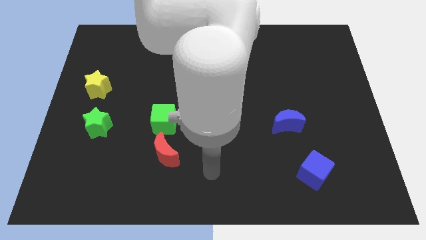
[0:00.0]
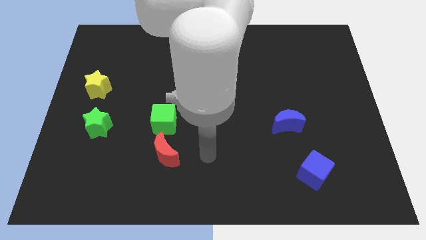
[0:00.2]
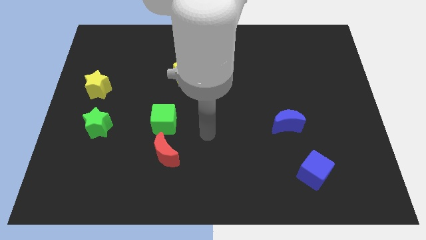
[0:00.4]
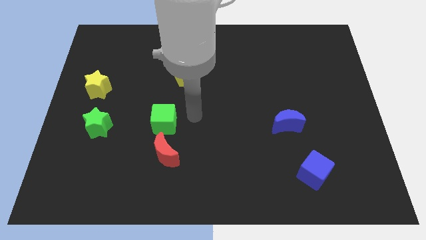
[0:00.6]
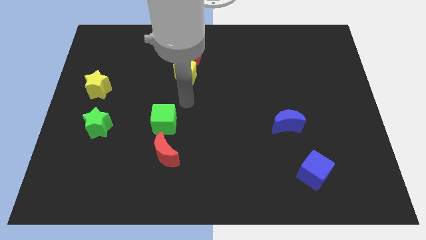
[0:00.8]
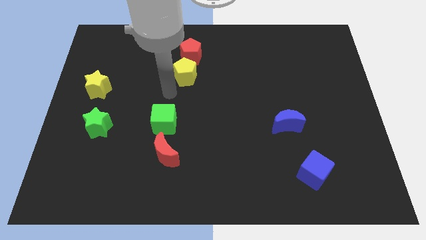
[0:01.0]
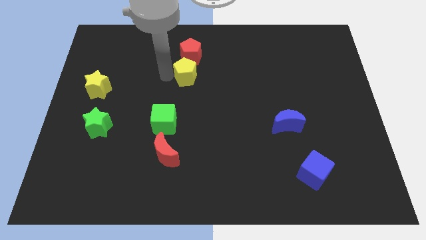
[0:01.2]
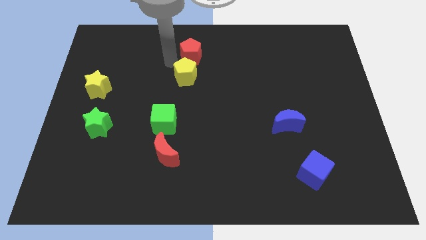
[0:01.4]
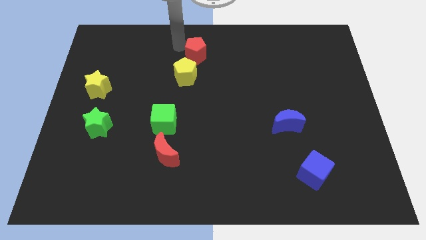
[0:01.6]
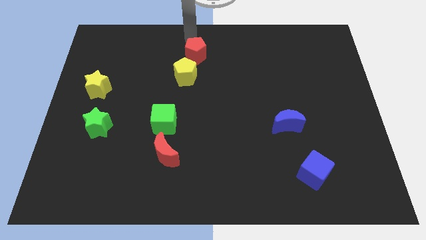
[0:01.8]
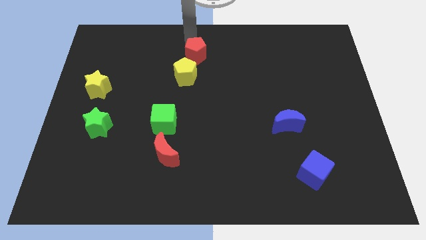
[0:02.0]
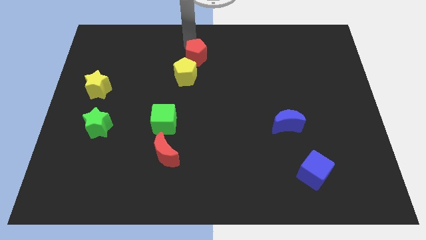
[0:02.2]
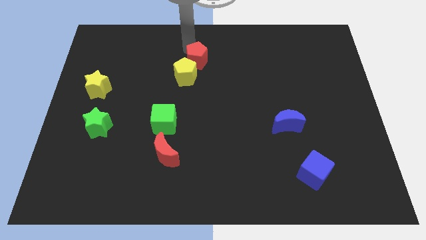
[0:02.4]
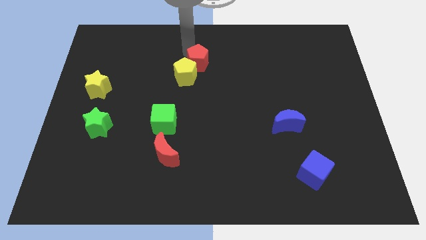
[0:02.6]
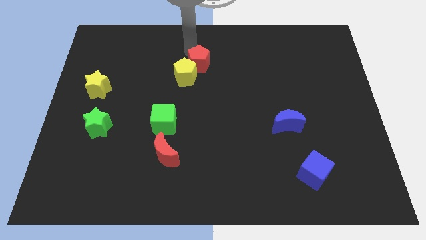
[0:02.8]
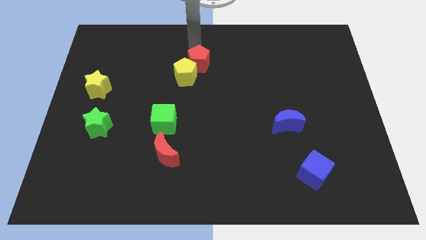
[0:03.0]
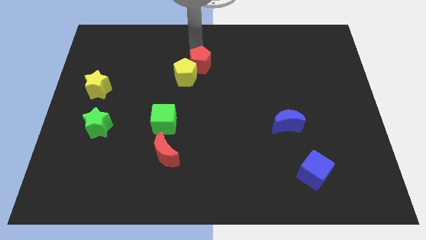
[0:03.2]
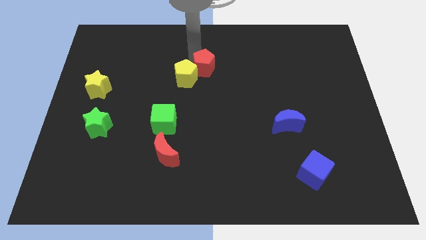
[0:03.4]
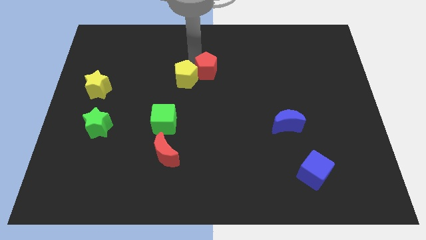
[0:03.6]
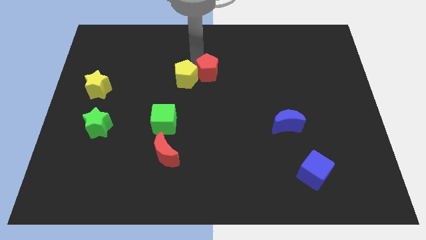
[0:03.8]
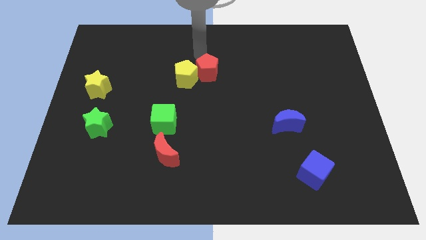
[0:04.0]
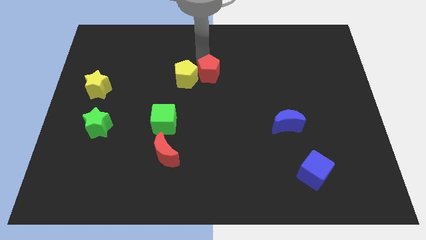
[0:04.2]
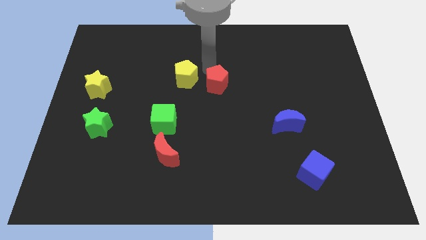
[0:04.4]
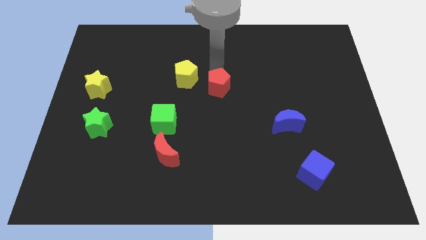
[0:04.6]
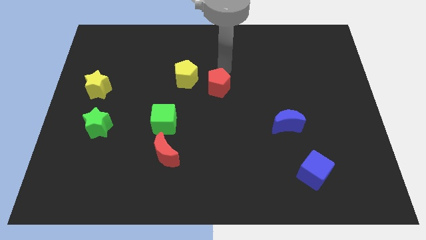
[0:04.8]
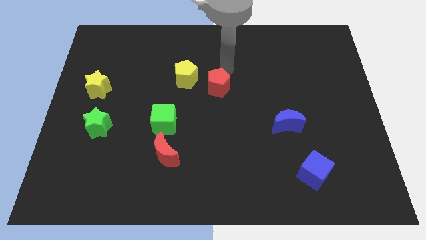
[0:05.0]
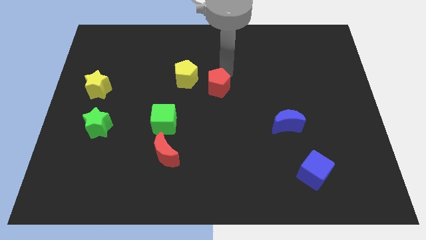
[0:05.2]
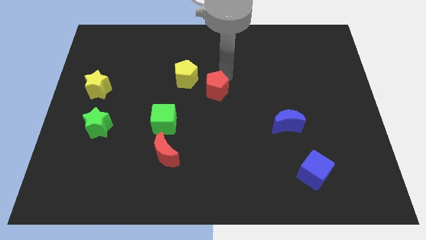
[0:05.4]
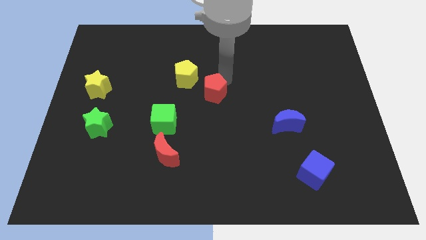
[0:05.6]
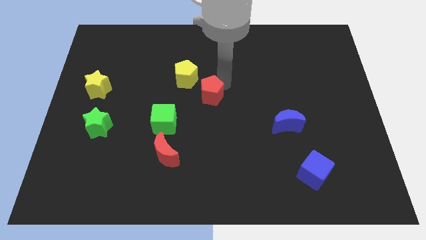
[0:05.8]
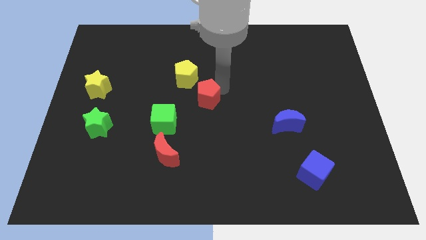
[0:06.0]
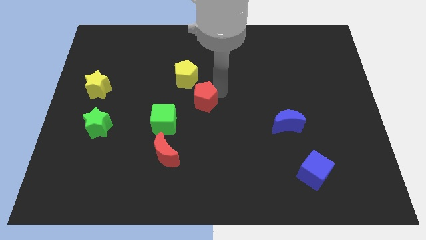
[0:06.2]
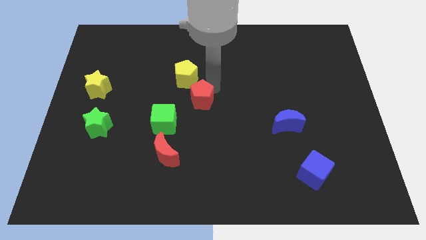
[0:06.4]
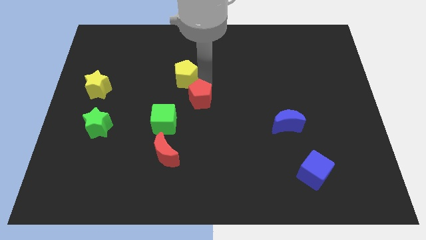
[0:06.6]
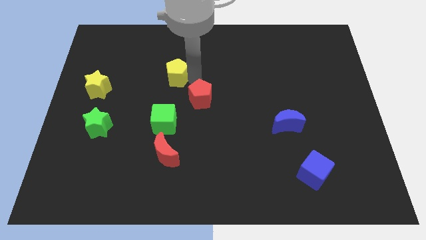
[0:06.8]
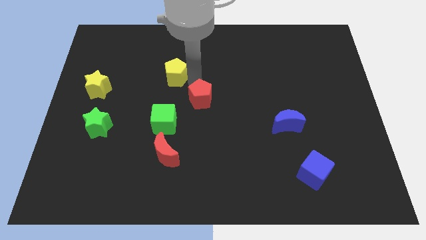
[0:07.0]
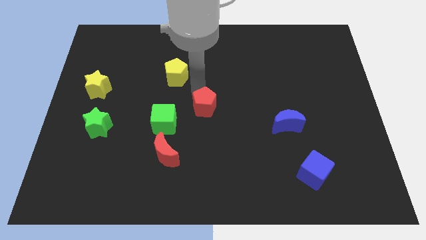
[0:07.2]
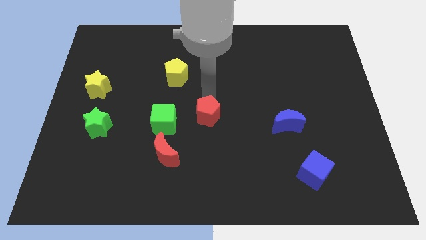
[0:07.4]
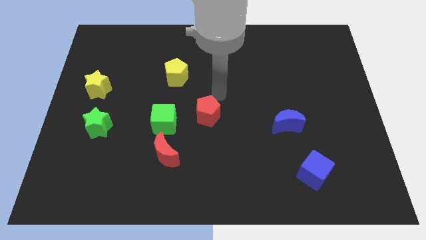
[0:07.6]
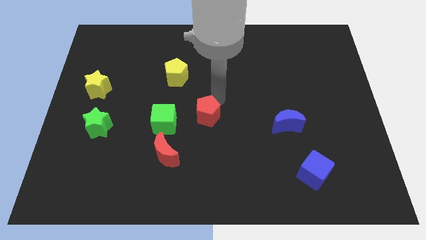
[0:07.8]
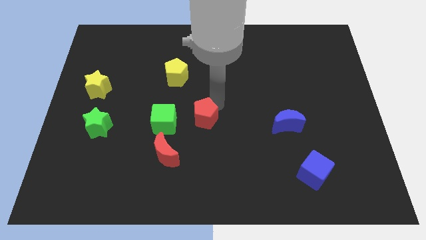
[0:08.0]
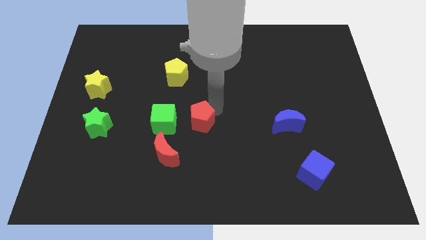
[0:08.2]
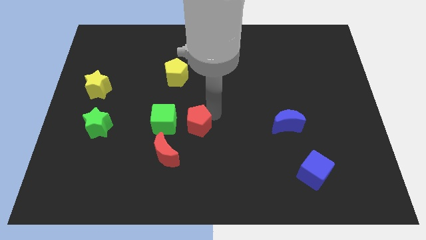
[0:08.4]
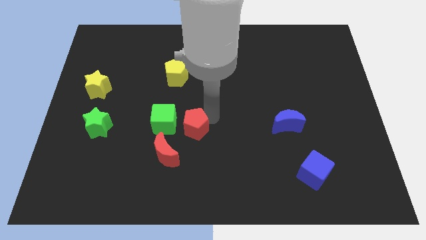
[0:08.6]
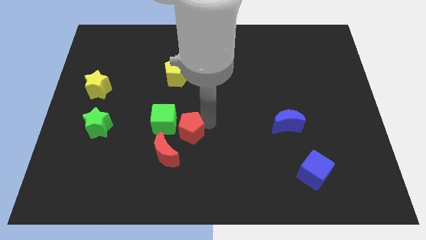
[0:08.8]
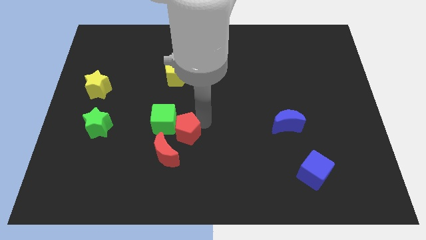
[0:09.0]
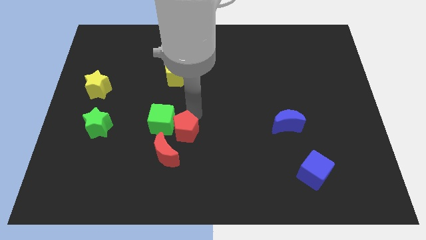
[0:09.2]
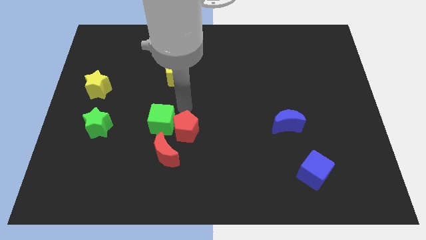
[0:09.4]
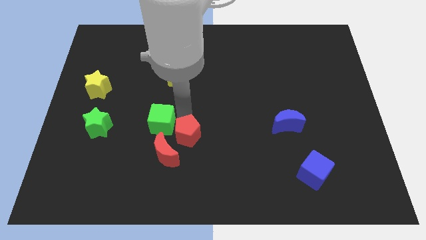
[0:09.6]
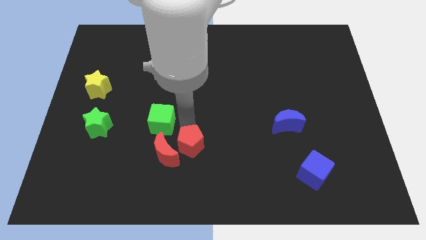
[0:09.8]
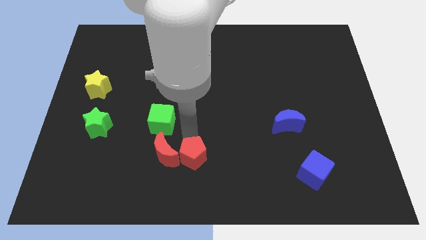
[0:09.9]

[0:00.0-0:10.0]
push the red pentagon to the bottom right side of the red moon

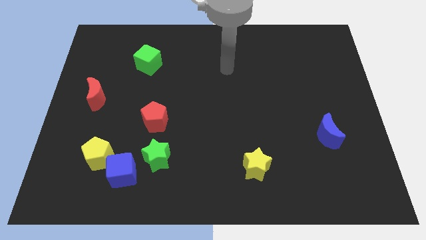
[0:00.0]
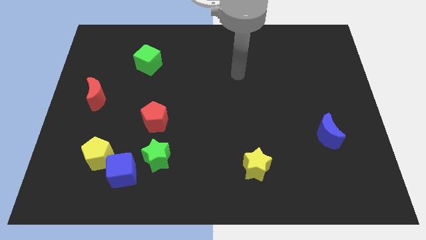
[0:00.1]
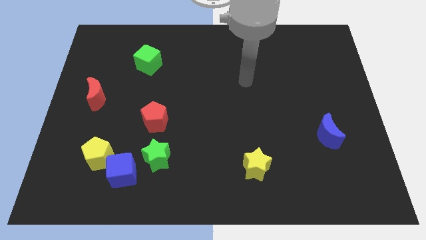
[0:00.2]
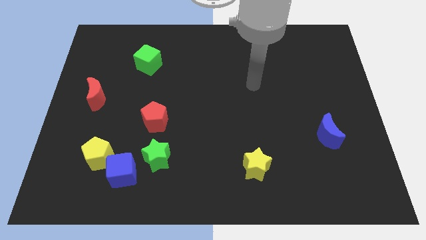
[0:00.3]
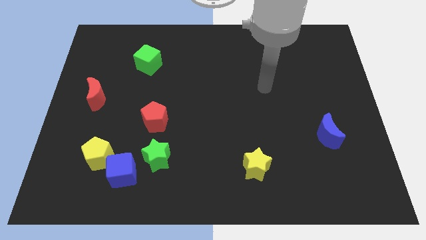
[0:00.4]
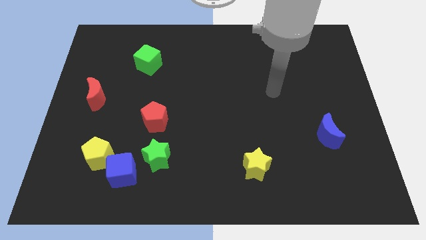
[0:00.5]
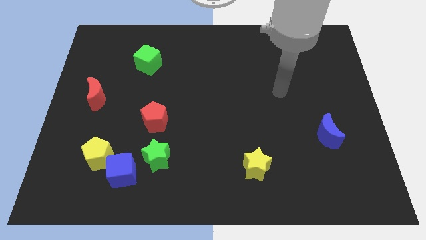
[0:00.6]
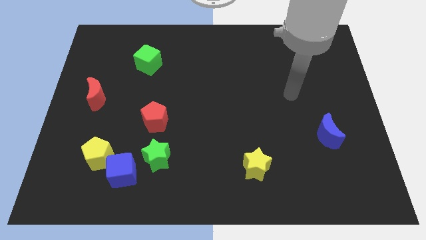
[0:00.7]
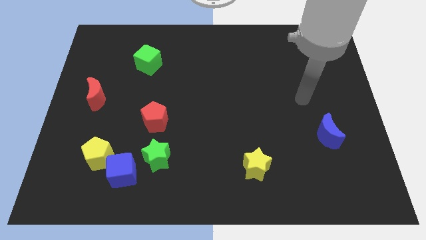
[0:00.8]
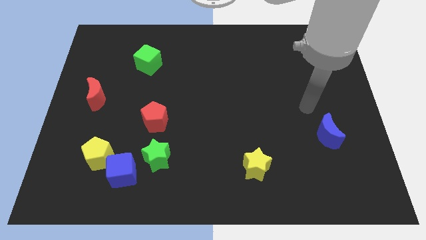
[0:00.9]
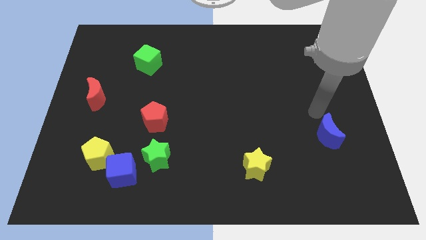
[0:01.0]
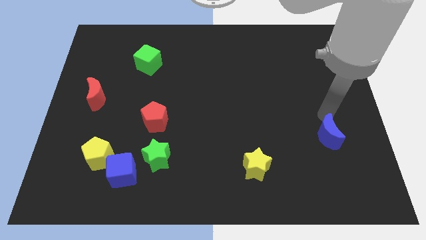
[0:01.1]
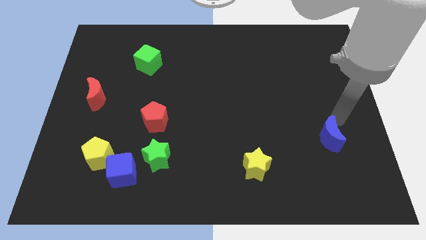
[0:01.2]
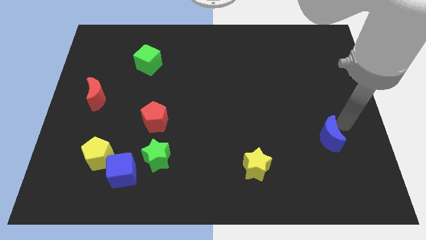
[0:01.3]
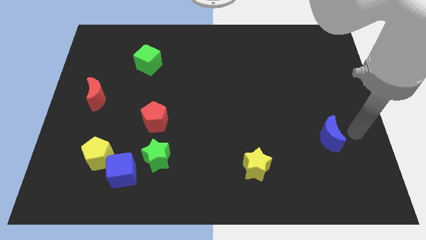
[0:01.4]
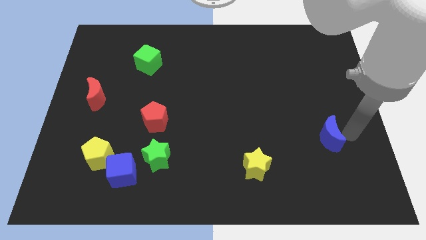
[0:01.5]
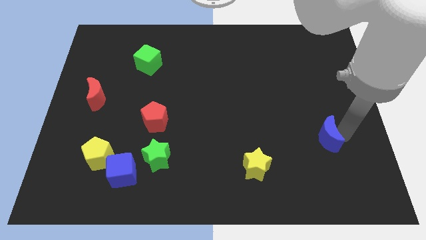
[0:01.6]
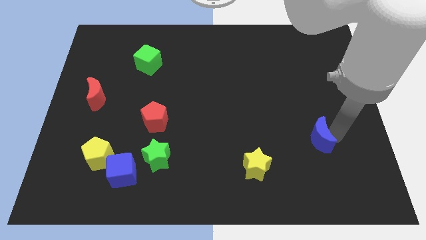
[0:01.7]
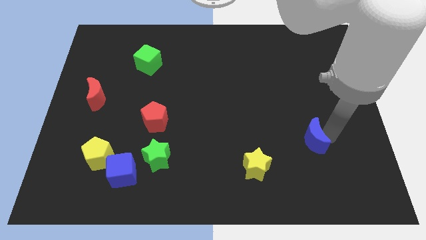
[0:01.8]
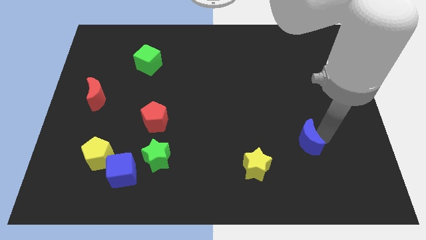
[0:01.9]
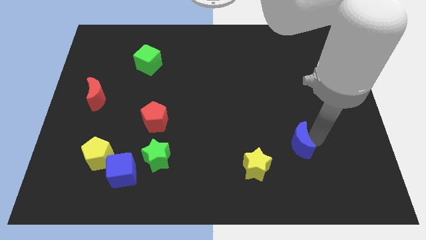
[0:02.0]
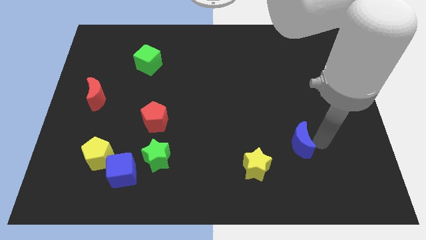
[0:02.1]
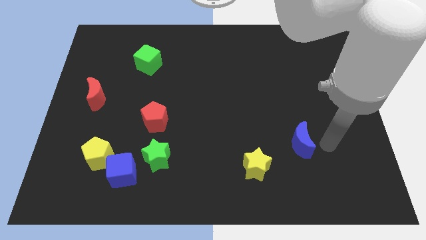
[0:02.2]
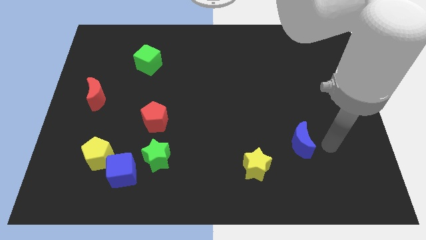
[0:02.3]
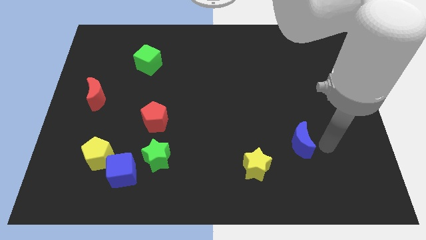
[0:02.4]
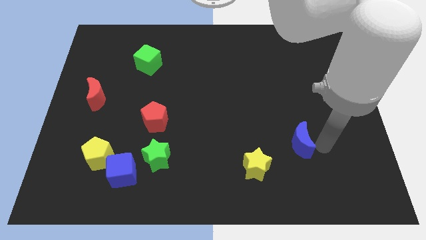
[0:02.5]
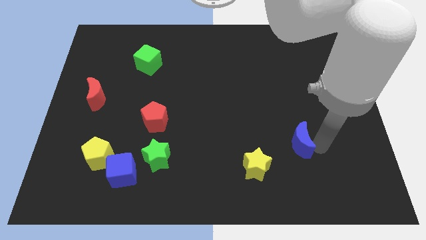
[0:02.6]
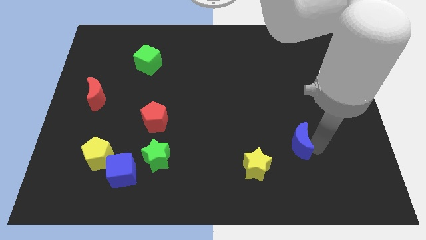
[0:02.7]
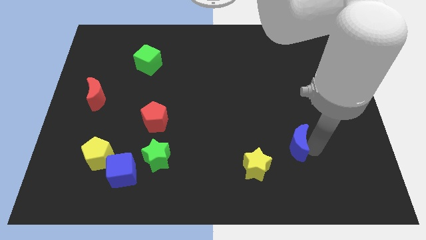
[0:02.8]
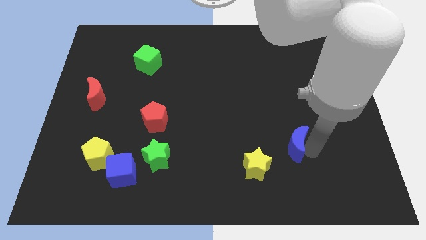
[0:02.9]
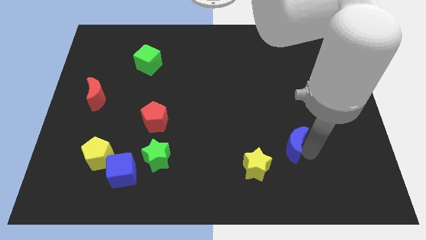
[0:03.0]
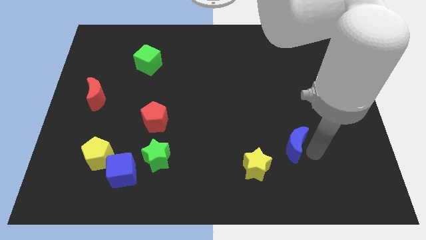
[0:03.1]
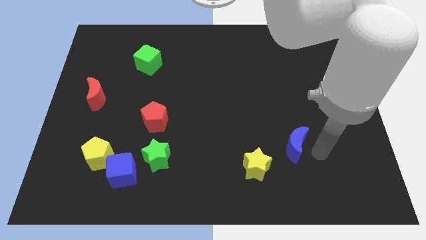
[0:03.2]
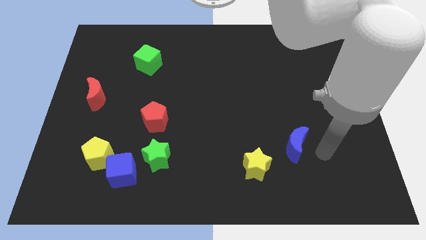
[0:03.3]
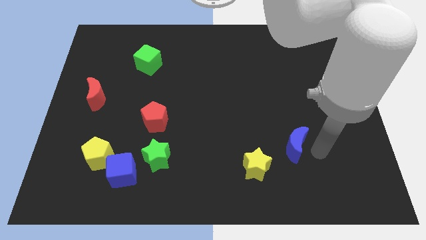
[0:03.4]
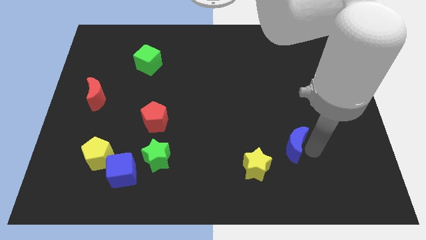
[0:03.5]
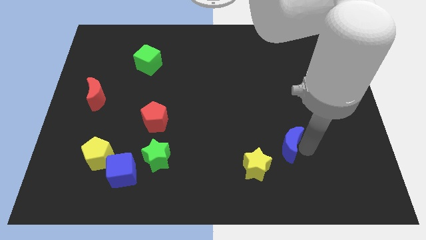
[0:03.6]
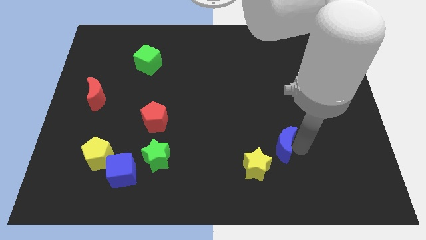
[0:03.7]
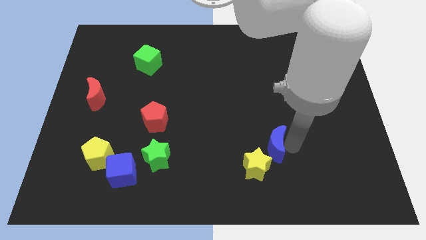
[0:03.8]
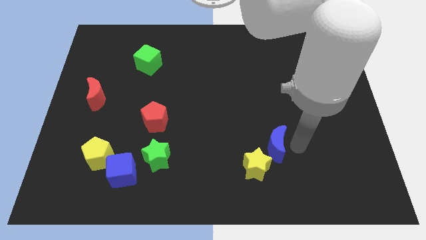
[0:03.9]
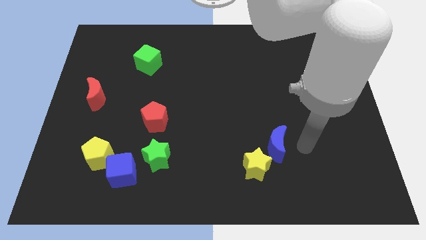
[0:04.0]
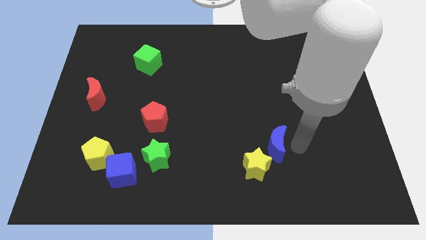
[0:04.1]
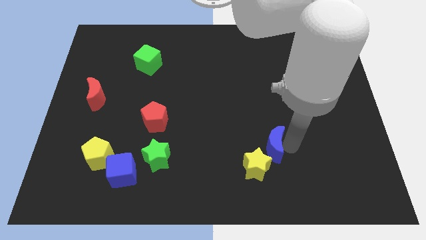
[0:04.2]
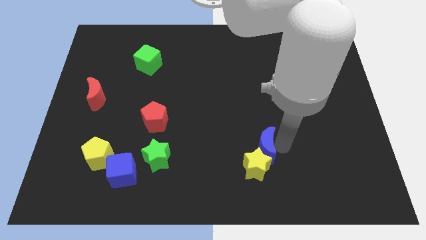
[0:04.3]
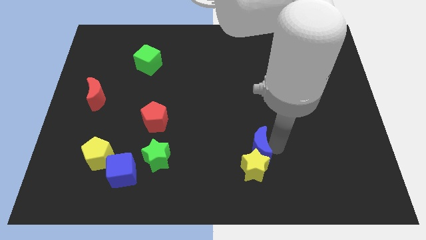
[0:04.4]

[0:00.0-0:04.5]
put the blue moon to the top left side of the yellow star
